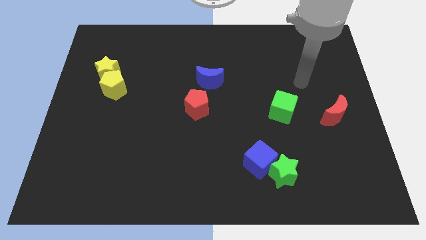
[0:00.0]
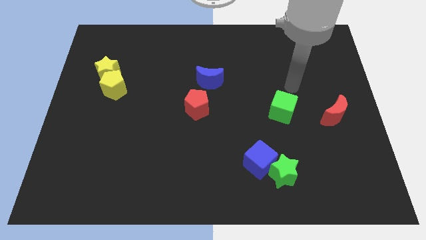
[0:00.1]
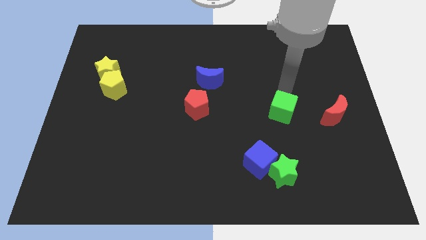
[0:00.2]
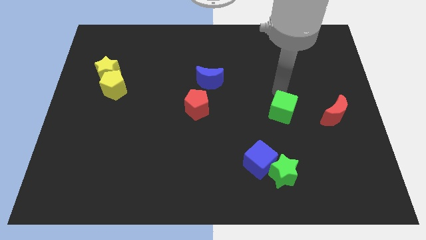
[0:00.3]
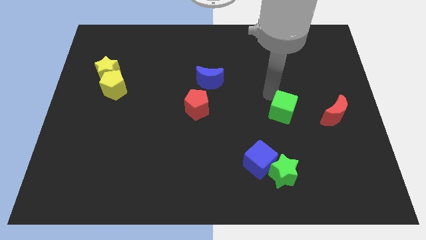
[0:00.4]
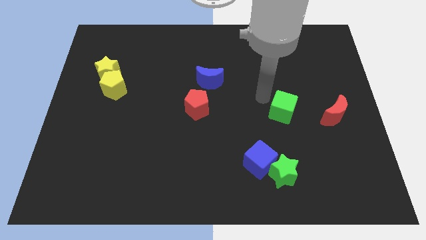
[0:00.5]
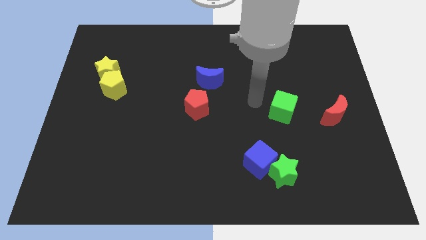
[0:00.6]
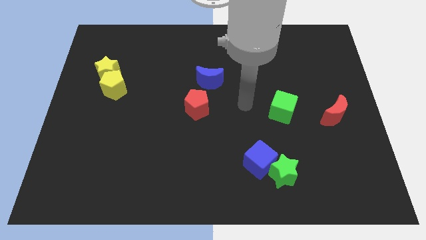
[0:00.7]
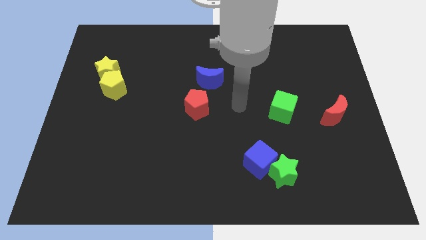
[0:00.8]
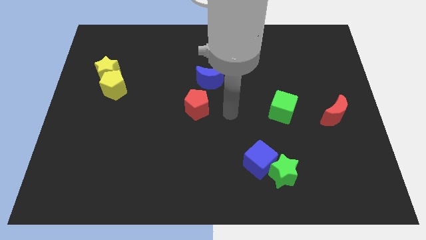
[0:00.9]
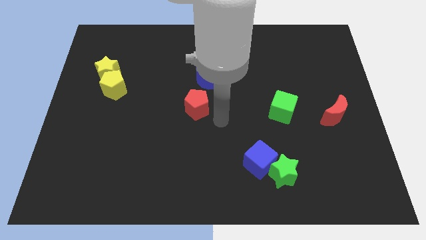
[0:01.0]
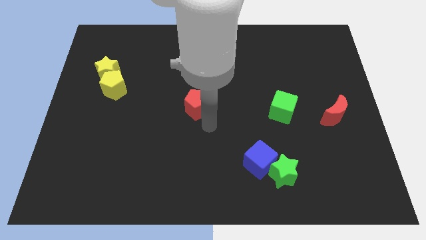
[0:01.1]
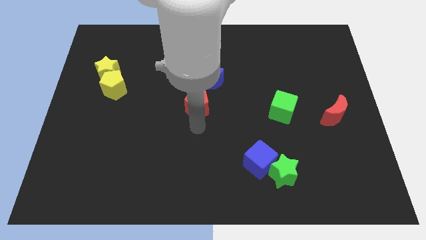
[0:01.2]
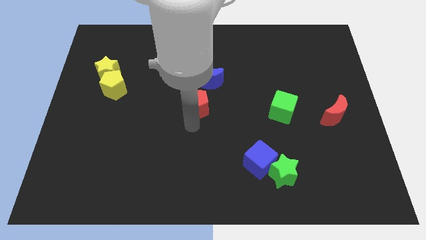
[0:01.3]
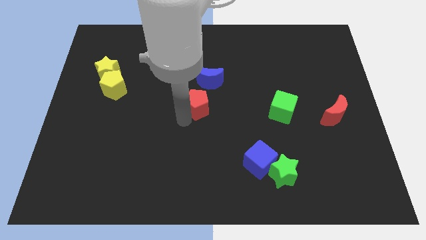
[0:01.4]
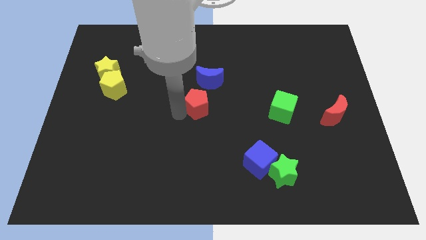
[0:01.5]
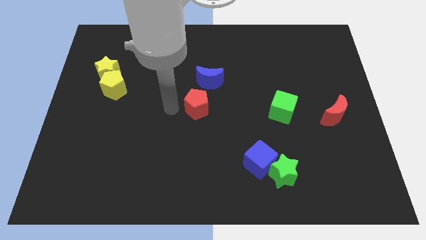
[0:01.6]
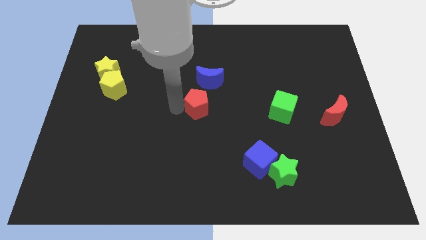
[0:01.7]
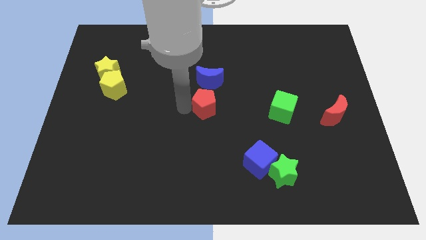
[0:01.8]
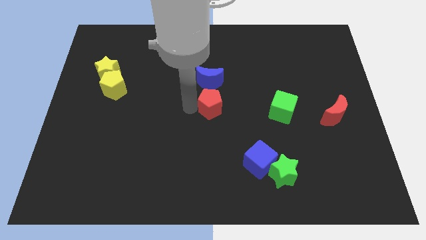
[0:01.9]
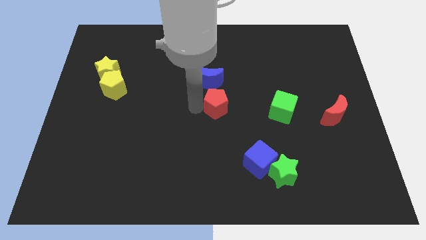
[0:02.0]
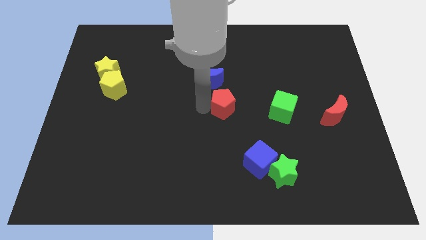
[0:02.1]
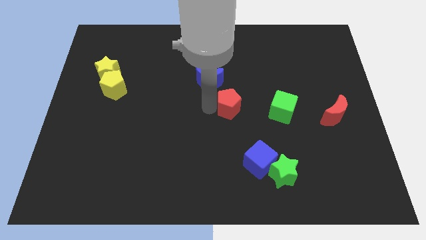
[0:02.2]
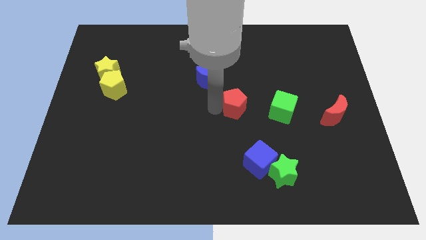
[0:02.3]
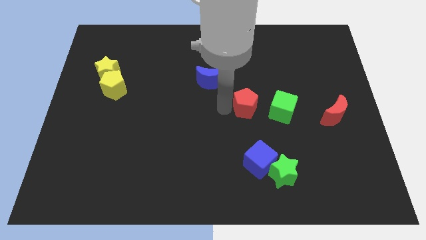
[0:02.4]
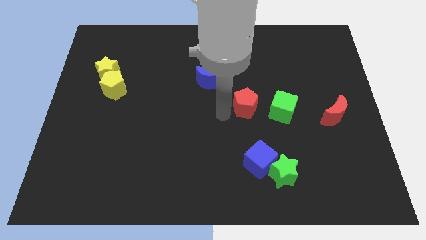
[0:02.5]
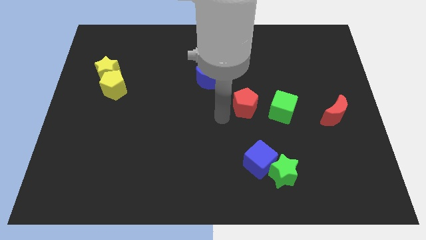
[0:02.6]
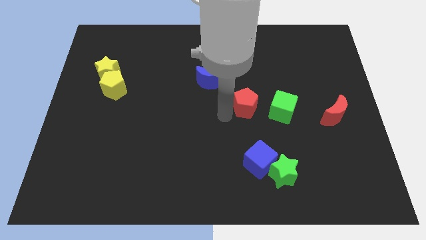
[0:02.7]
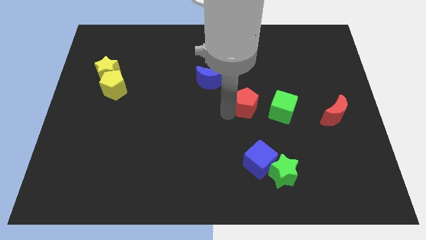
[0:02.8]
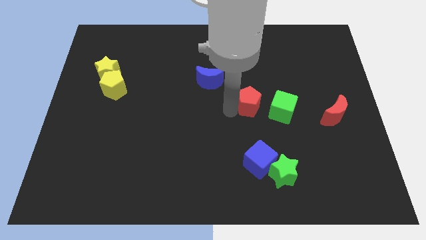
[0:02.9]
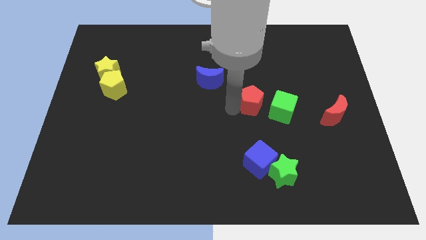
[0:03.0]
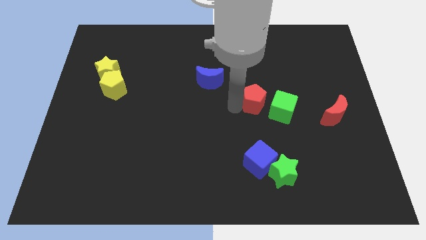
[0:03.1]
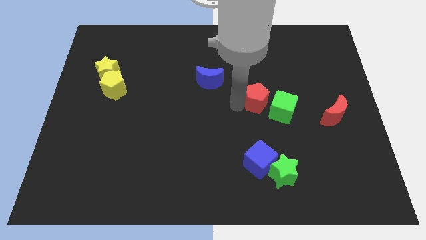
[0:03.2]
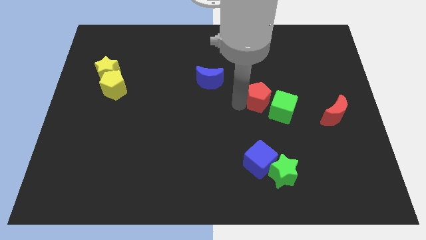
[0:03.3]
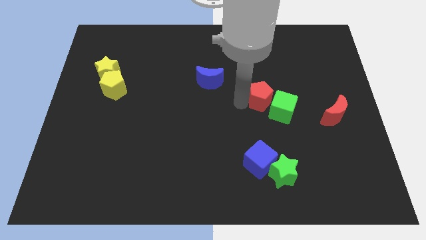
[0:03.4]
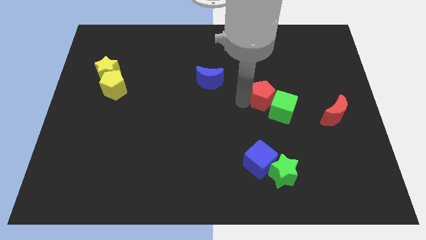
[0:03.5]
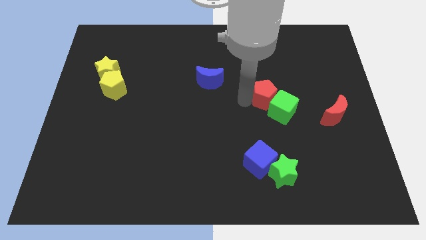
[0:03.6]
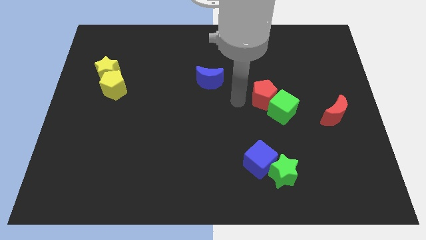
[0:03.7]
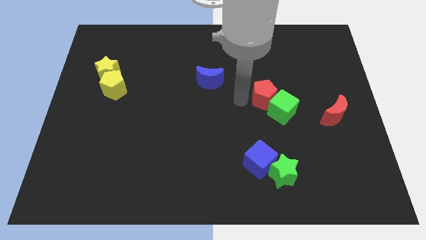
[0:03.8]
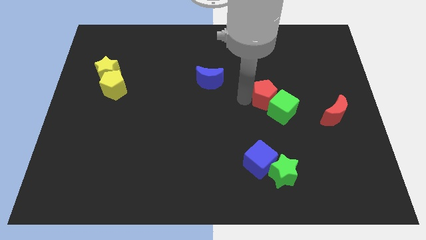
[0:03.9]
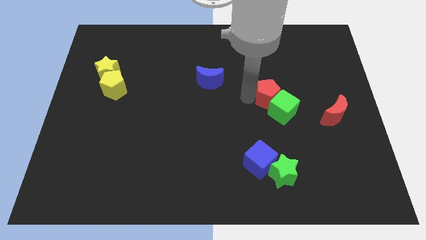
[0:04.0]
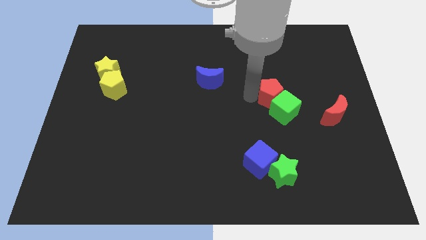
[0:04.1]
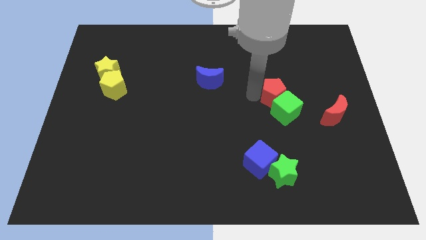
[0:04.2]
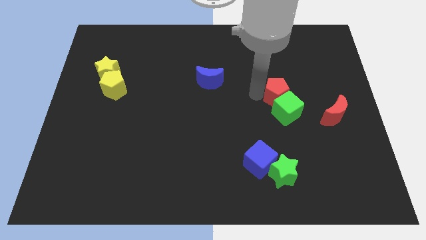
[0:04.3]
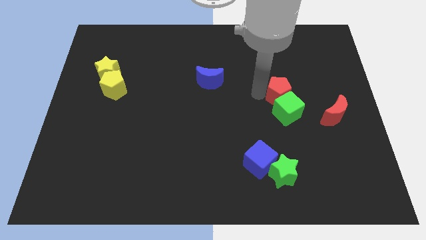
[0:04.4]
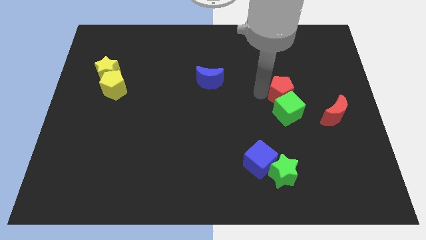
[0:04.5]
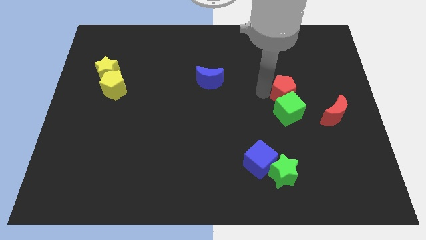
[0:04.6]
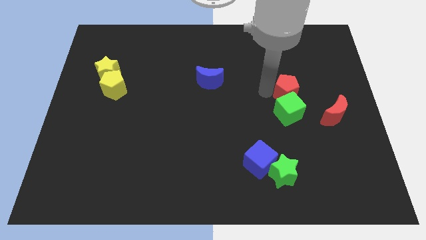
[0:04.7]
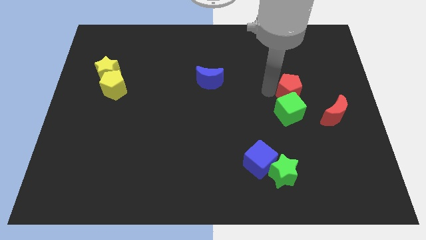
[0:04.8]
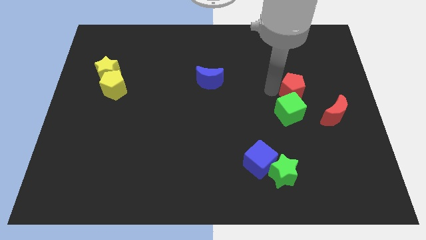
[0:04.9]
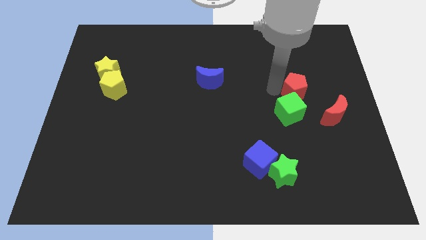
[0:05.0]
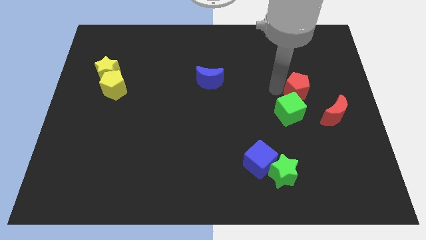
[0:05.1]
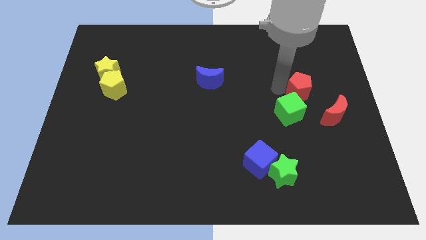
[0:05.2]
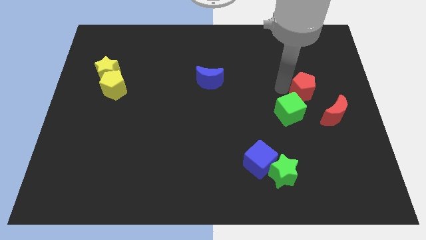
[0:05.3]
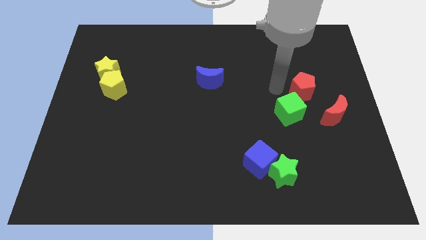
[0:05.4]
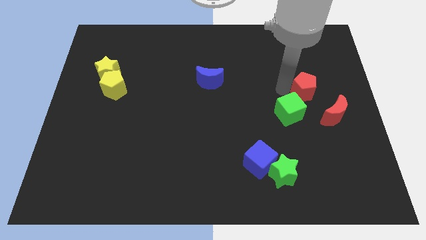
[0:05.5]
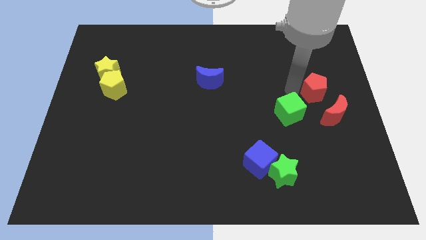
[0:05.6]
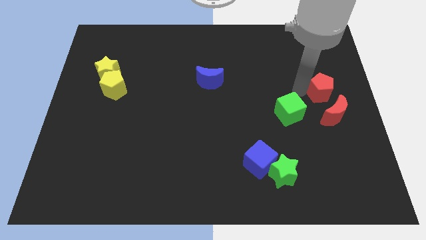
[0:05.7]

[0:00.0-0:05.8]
put the red pentagon to the right side

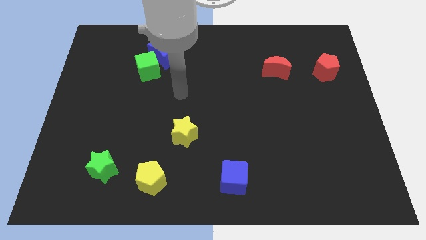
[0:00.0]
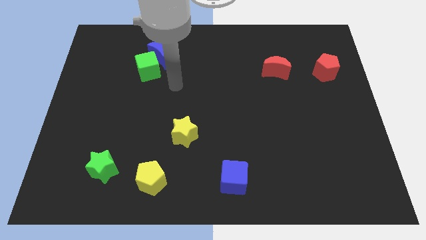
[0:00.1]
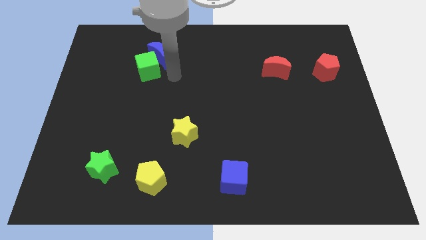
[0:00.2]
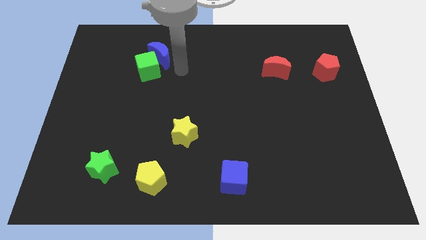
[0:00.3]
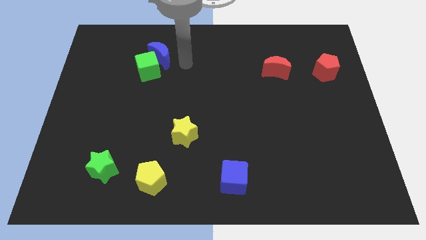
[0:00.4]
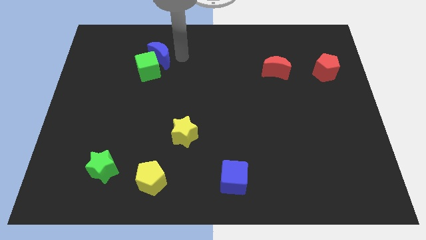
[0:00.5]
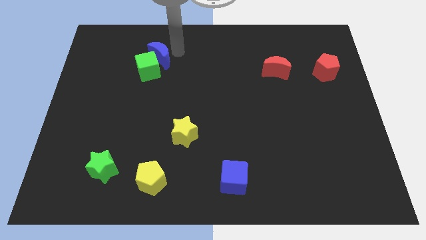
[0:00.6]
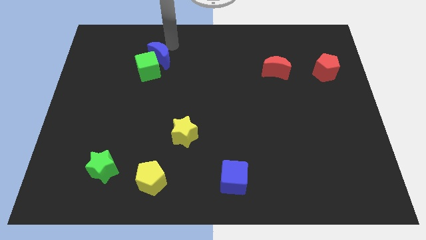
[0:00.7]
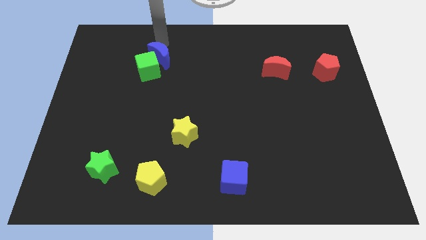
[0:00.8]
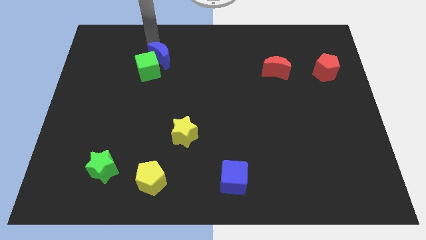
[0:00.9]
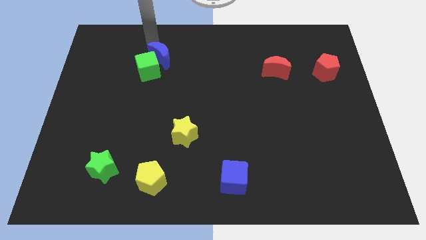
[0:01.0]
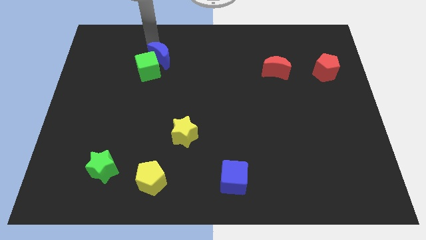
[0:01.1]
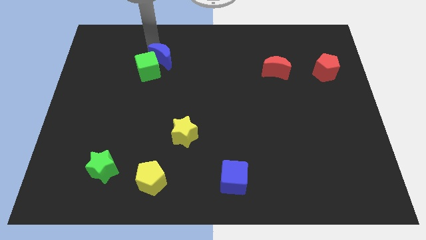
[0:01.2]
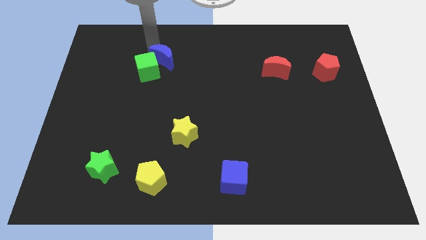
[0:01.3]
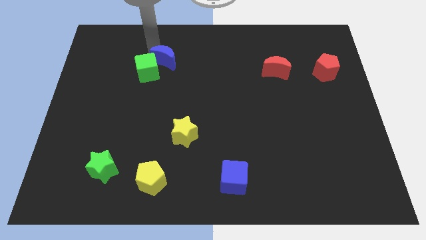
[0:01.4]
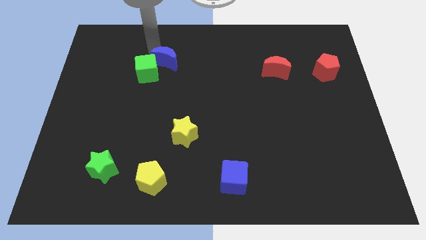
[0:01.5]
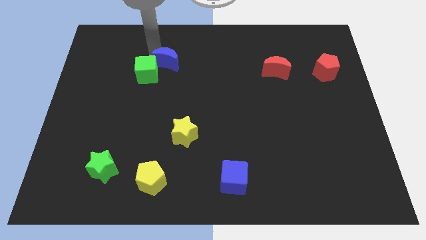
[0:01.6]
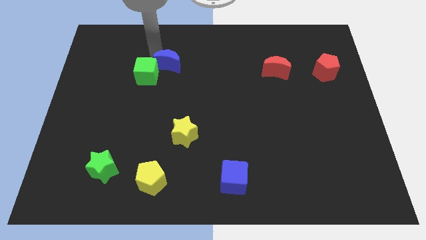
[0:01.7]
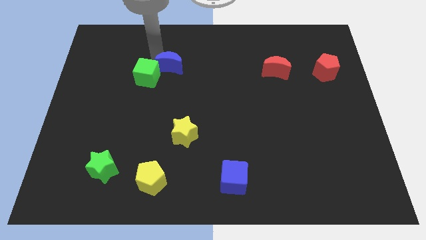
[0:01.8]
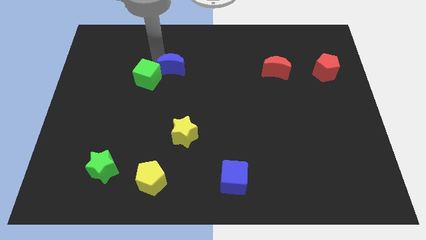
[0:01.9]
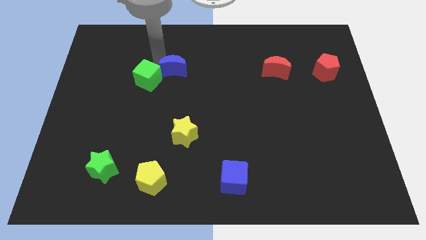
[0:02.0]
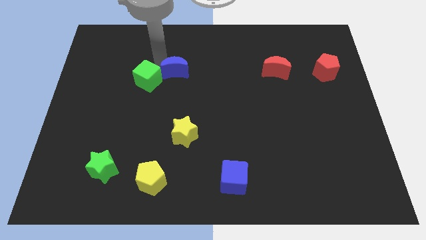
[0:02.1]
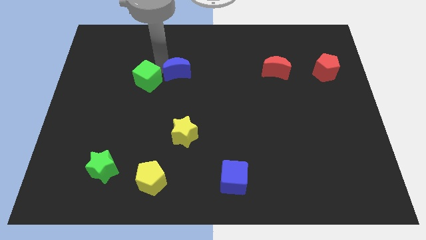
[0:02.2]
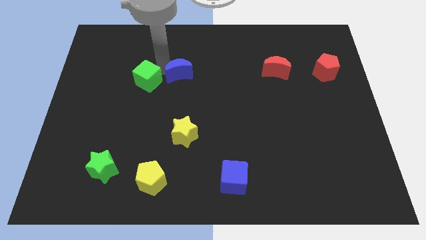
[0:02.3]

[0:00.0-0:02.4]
push the blue moon to the center of the board
